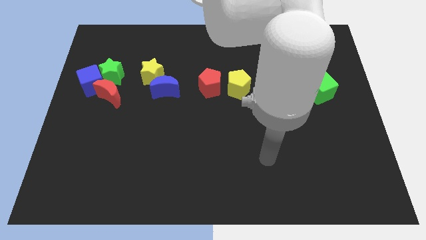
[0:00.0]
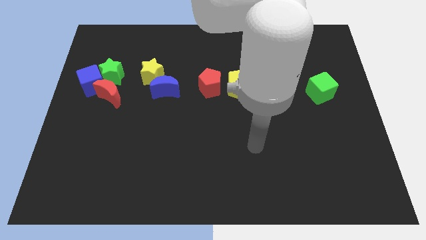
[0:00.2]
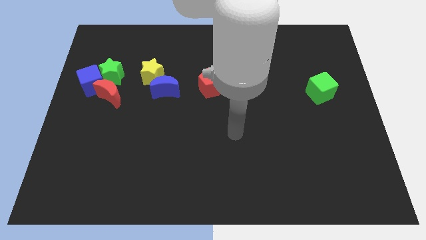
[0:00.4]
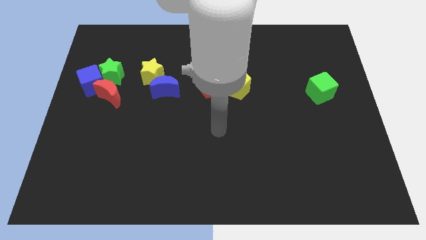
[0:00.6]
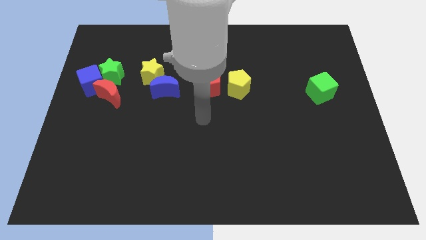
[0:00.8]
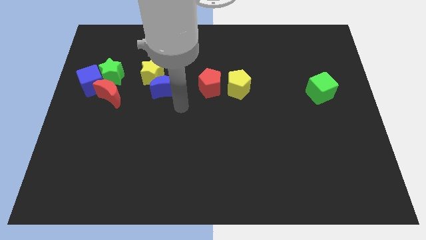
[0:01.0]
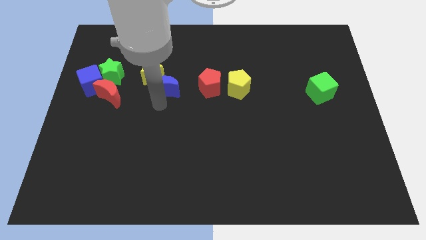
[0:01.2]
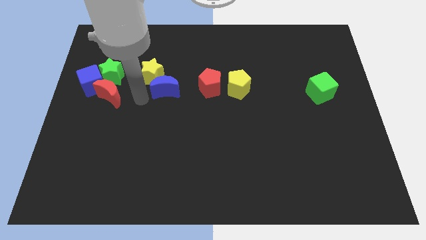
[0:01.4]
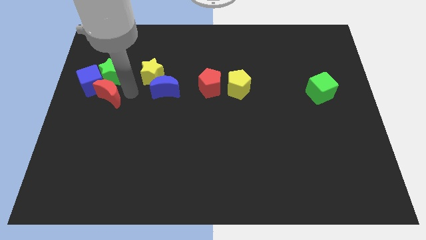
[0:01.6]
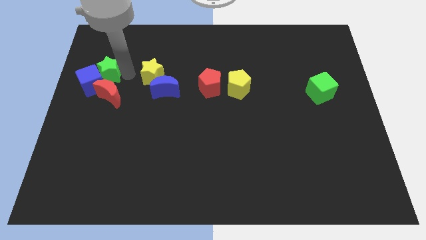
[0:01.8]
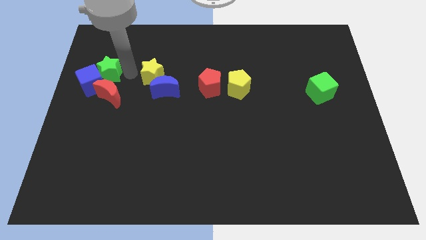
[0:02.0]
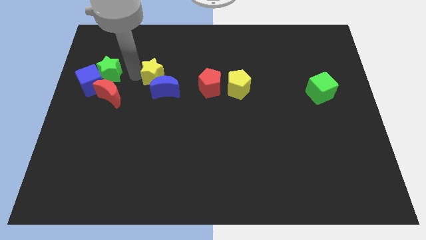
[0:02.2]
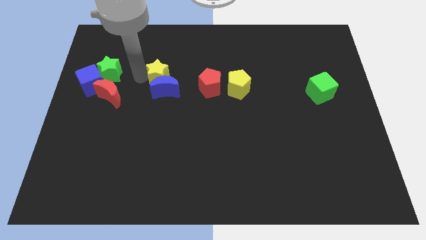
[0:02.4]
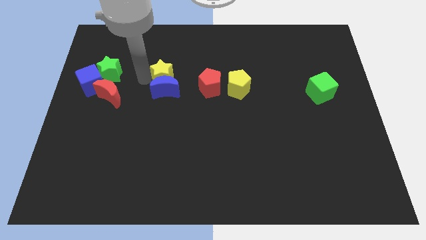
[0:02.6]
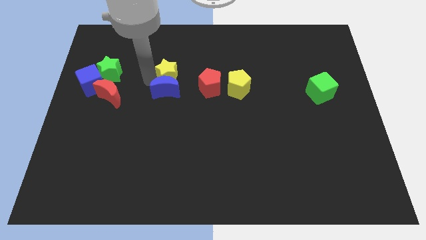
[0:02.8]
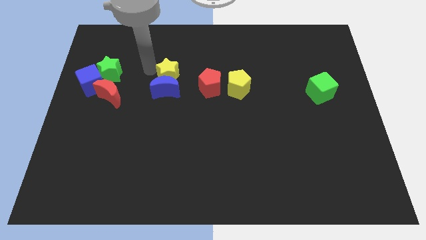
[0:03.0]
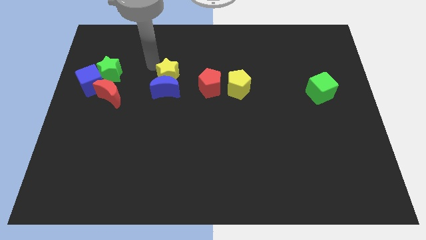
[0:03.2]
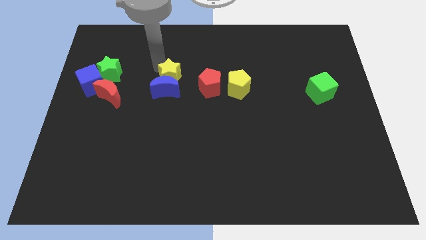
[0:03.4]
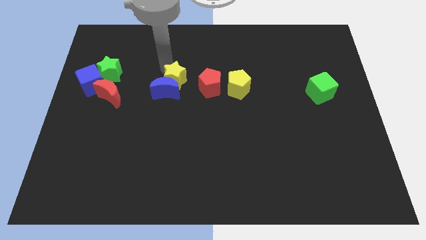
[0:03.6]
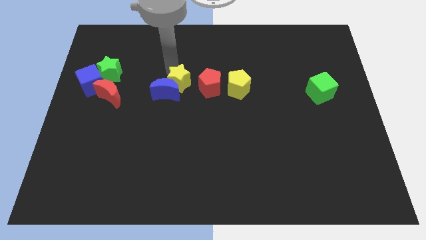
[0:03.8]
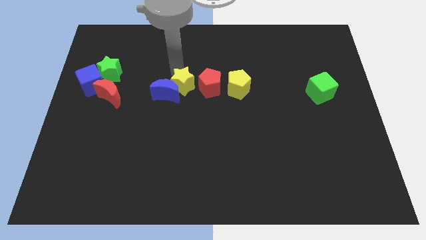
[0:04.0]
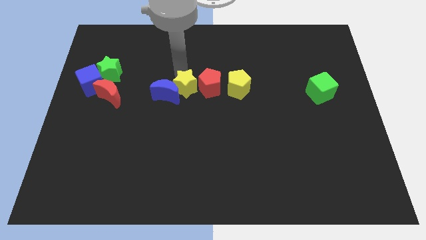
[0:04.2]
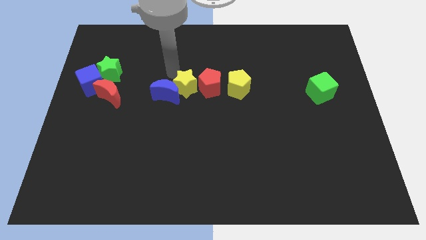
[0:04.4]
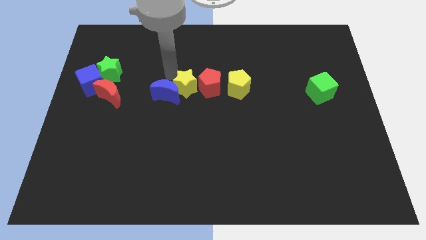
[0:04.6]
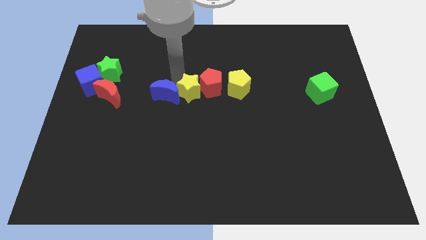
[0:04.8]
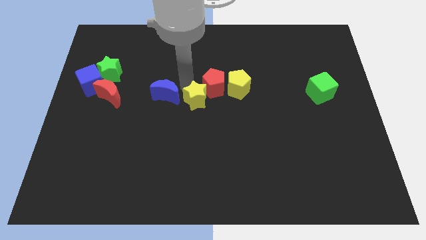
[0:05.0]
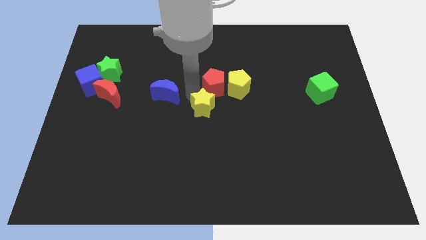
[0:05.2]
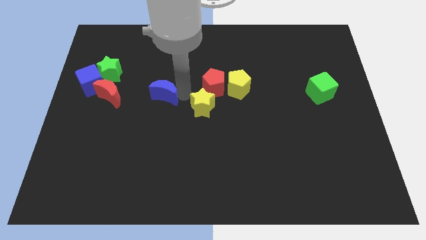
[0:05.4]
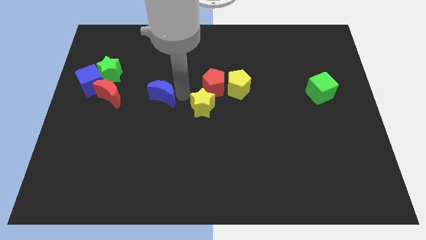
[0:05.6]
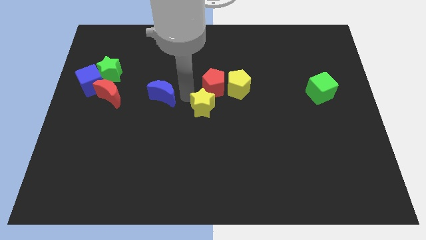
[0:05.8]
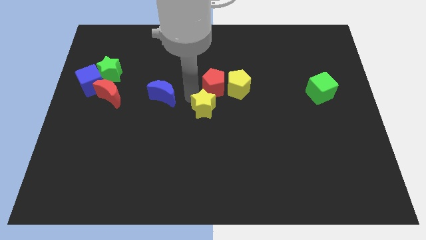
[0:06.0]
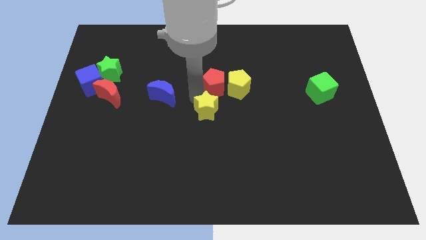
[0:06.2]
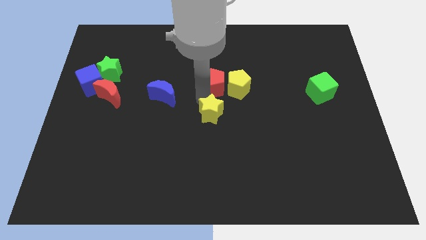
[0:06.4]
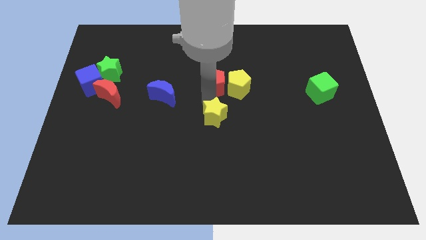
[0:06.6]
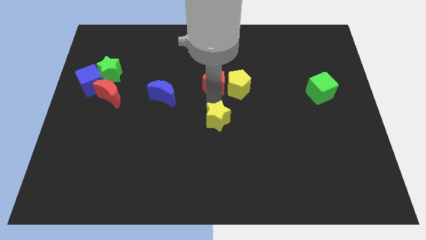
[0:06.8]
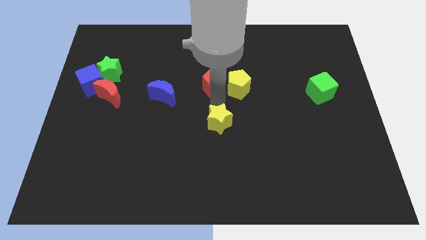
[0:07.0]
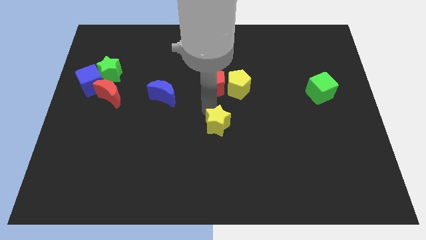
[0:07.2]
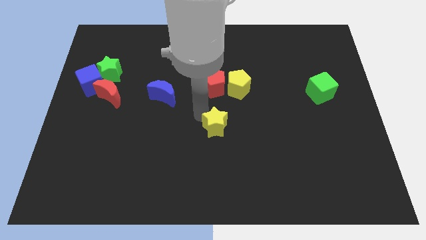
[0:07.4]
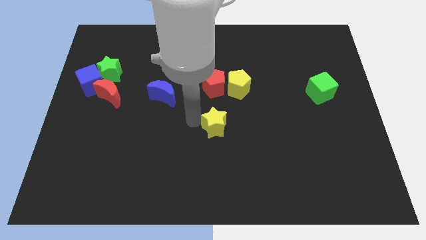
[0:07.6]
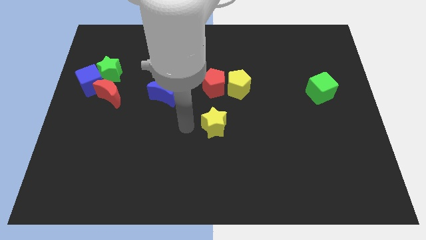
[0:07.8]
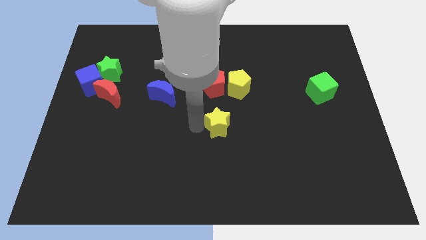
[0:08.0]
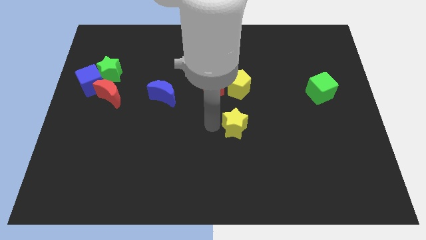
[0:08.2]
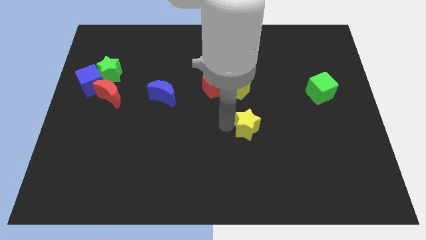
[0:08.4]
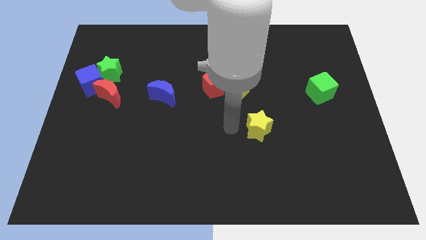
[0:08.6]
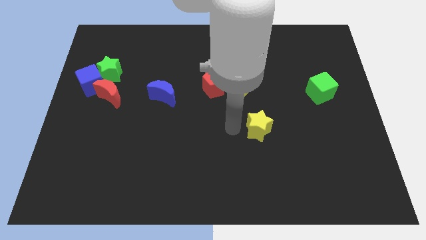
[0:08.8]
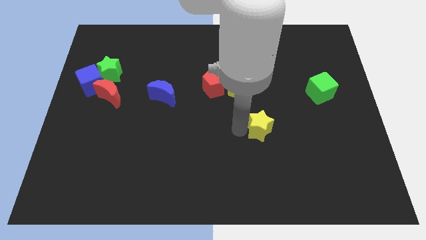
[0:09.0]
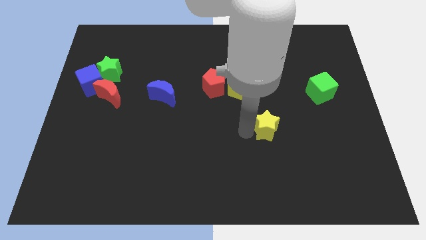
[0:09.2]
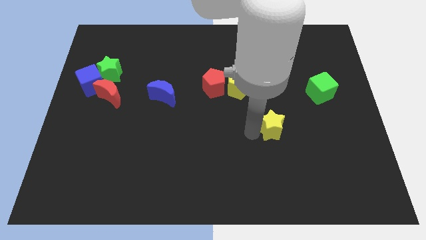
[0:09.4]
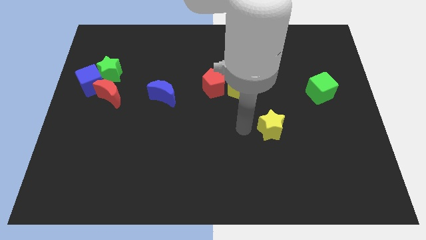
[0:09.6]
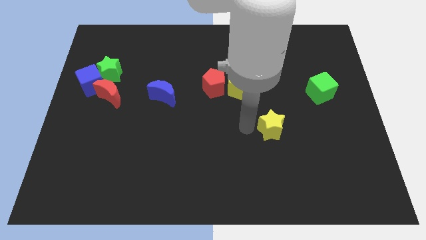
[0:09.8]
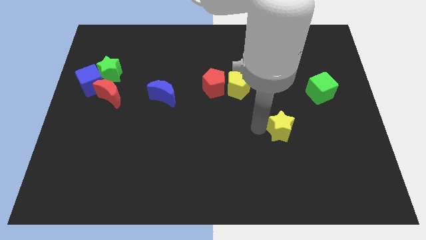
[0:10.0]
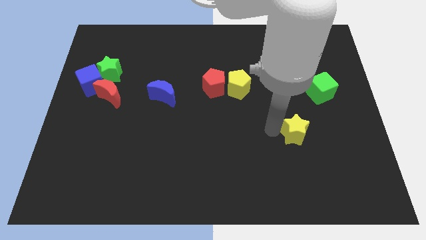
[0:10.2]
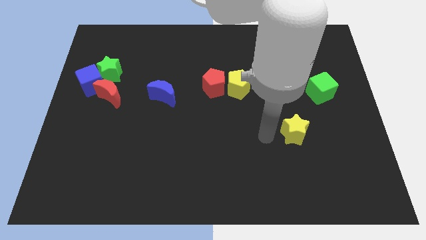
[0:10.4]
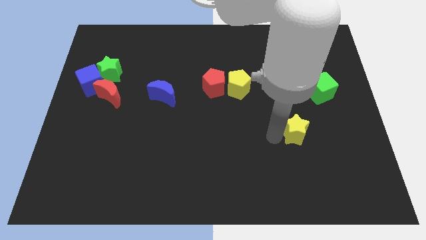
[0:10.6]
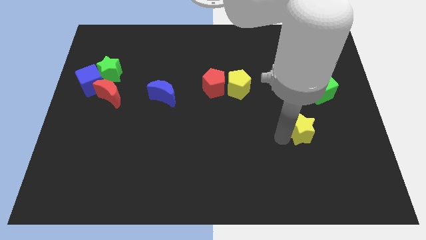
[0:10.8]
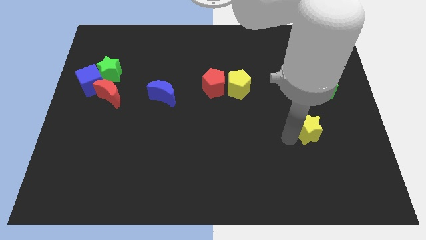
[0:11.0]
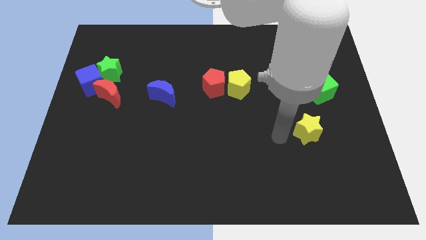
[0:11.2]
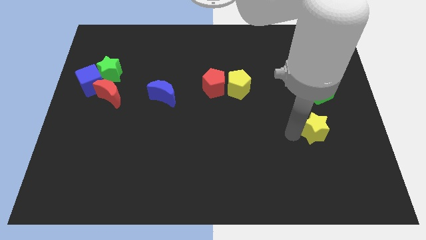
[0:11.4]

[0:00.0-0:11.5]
slide the yellow star to the bottom side of the green cube

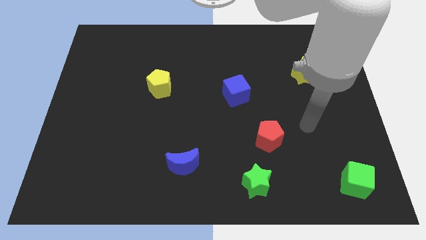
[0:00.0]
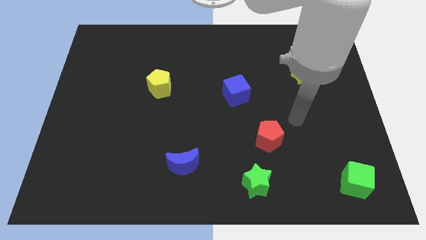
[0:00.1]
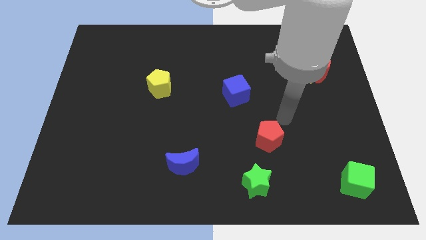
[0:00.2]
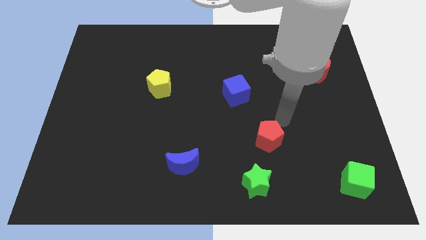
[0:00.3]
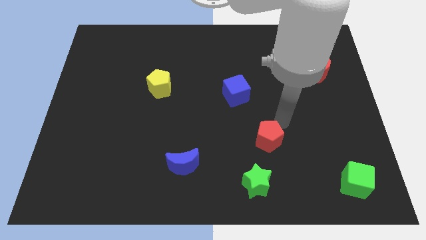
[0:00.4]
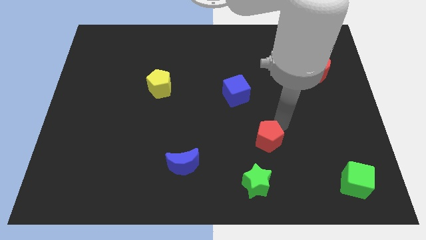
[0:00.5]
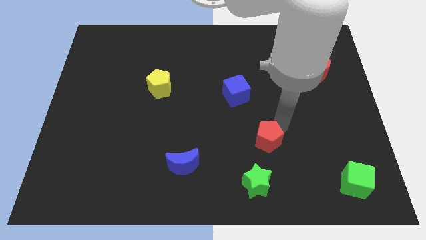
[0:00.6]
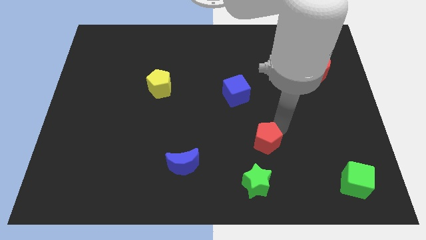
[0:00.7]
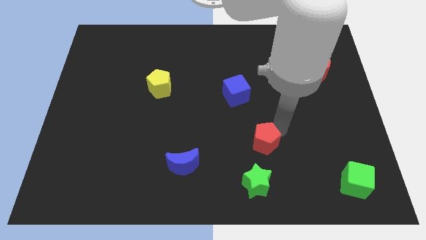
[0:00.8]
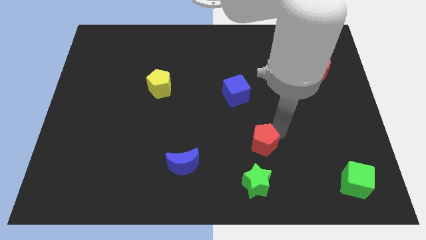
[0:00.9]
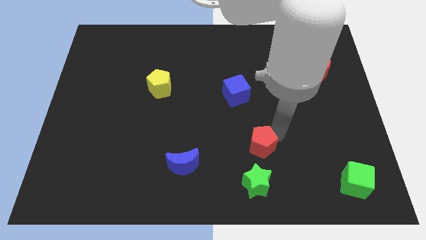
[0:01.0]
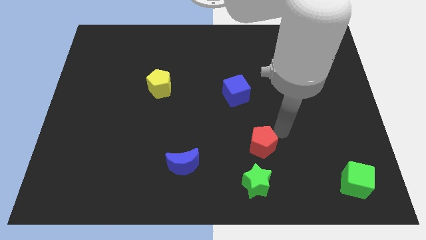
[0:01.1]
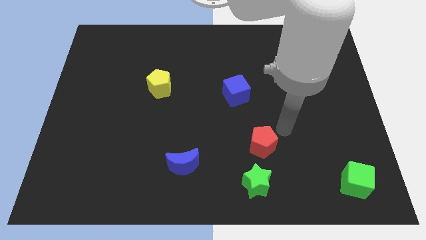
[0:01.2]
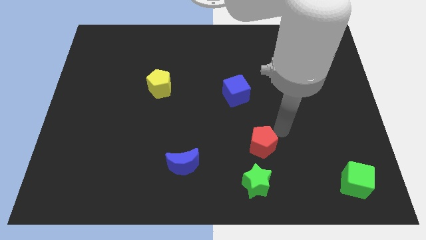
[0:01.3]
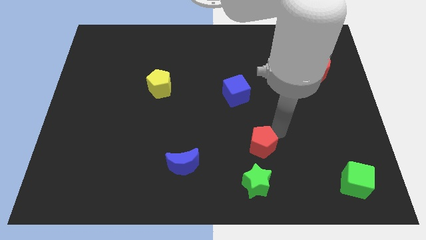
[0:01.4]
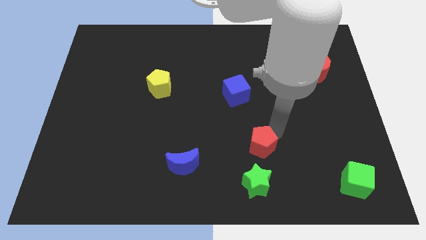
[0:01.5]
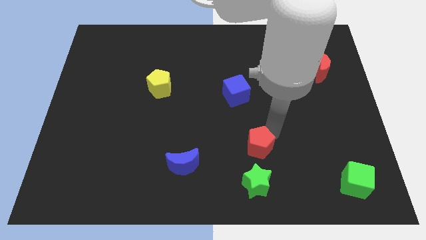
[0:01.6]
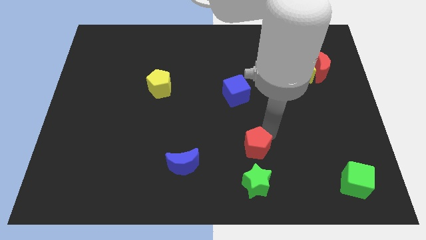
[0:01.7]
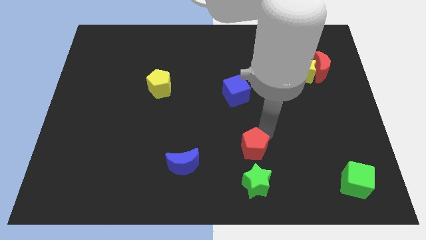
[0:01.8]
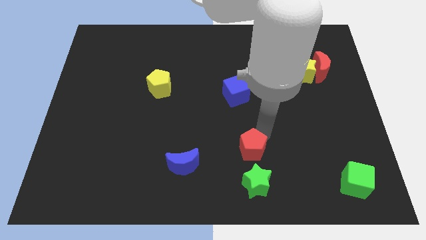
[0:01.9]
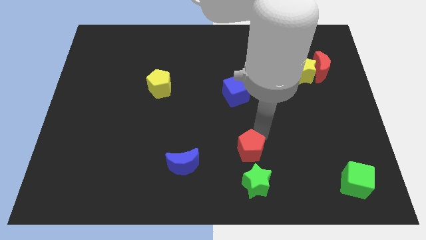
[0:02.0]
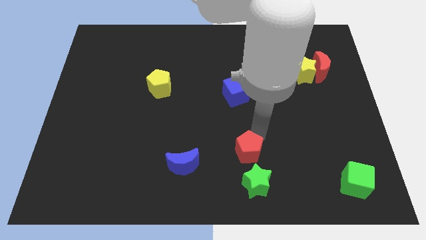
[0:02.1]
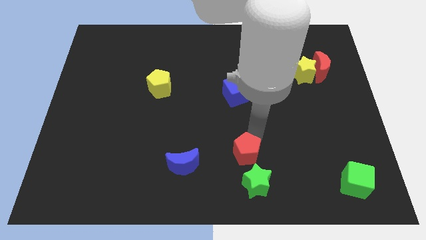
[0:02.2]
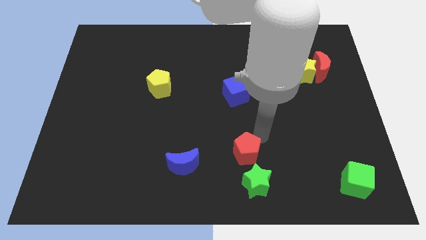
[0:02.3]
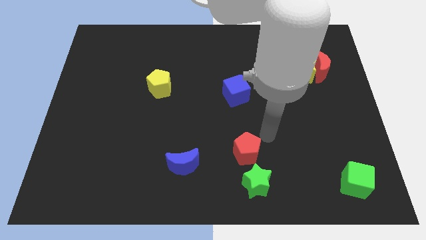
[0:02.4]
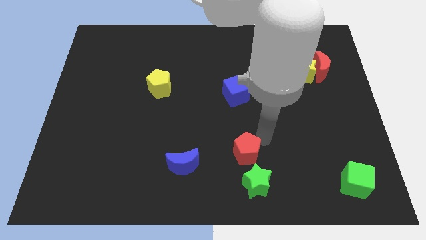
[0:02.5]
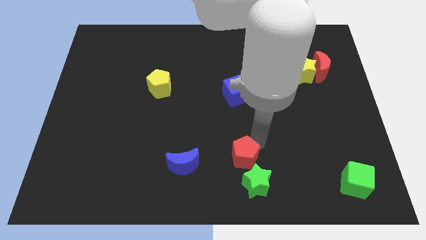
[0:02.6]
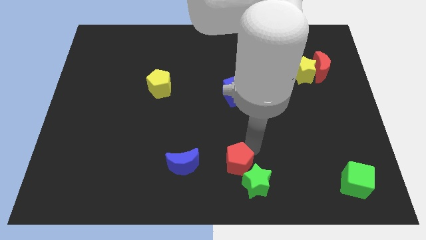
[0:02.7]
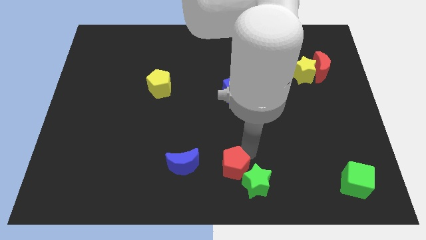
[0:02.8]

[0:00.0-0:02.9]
slide the red pentagon to the left of the green star
